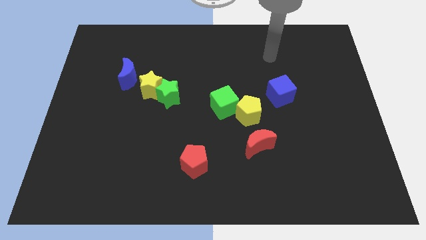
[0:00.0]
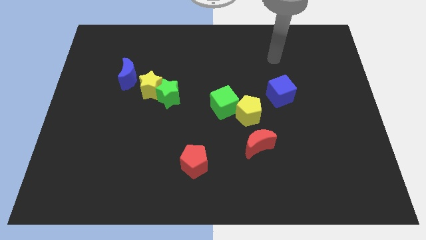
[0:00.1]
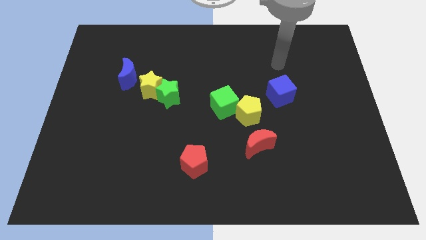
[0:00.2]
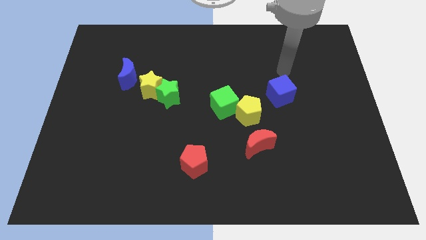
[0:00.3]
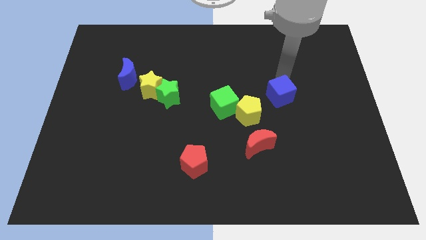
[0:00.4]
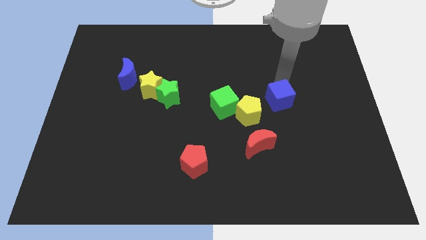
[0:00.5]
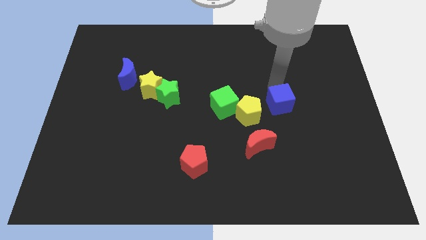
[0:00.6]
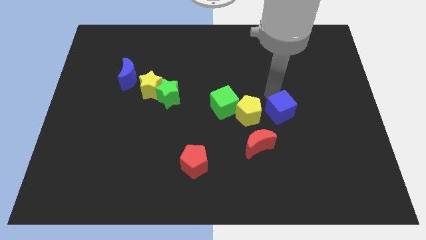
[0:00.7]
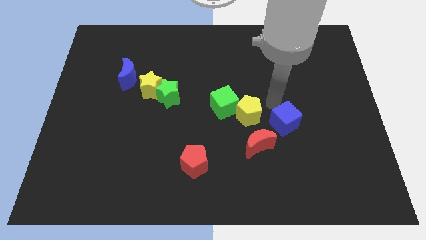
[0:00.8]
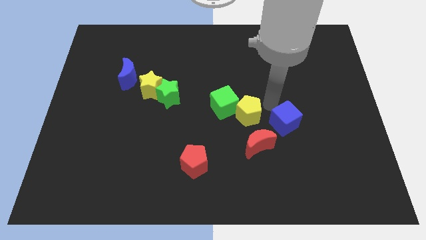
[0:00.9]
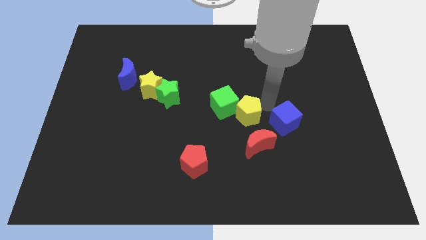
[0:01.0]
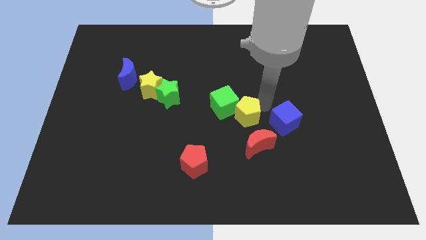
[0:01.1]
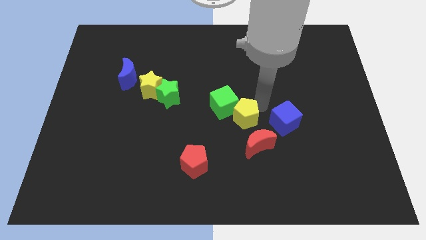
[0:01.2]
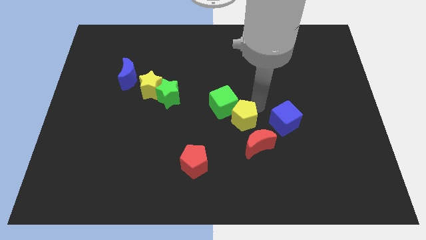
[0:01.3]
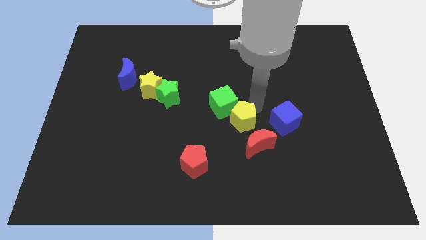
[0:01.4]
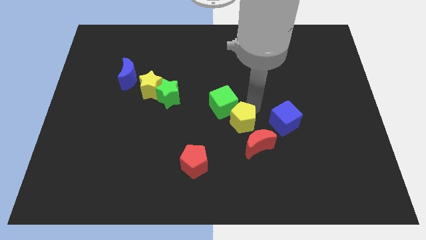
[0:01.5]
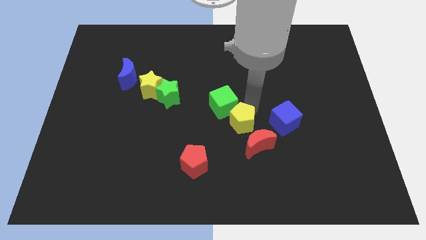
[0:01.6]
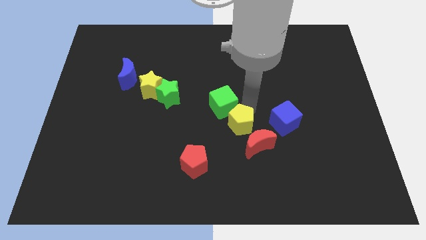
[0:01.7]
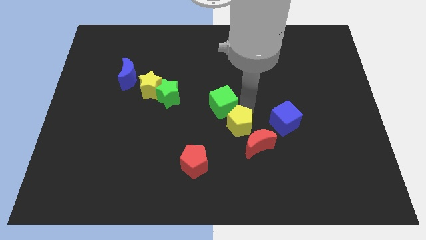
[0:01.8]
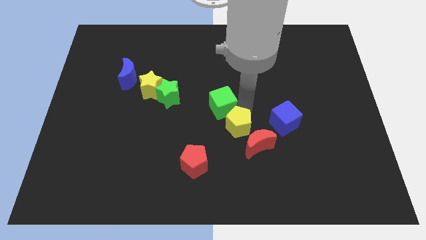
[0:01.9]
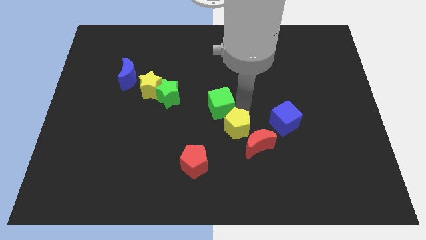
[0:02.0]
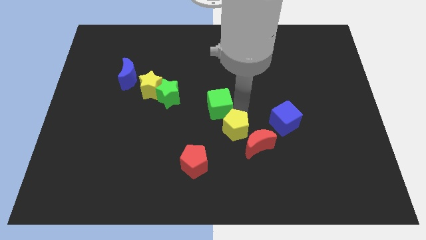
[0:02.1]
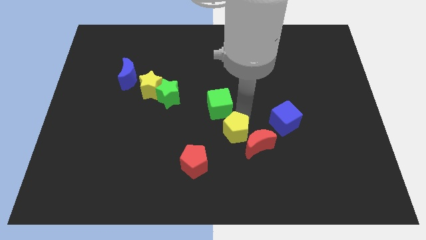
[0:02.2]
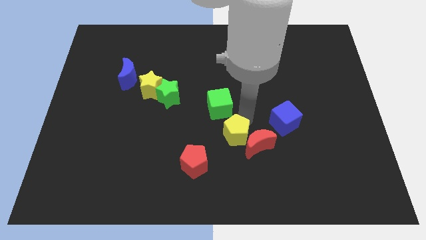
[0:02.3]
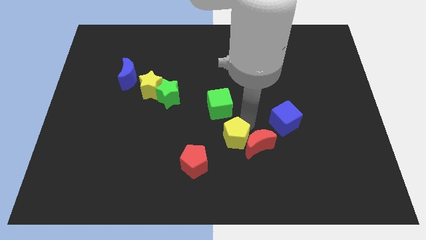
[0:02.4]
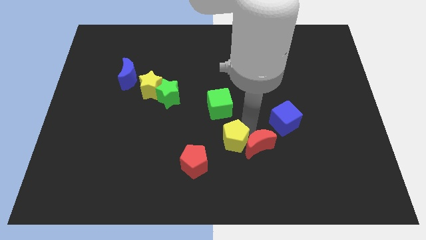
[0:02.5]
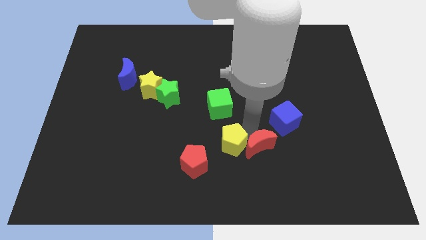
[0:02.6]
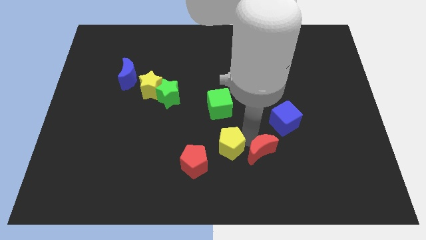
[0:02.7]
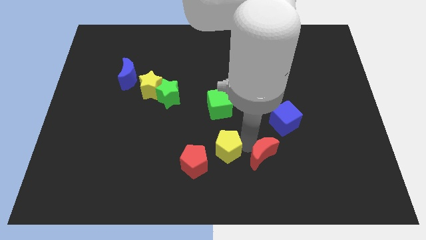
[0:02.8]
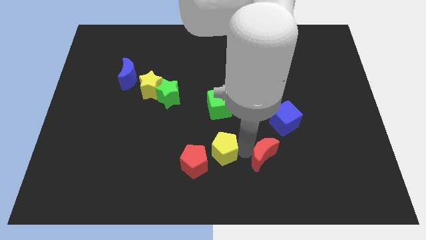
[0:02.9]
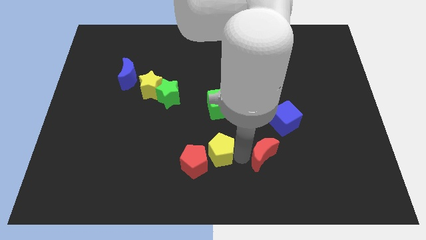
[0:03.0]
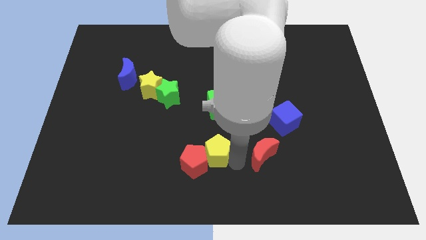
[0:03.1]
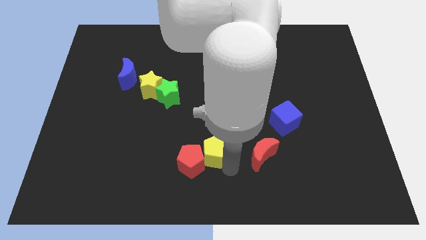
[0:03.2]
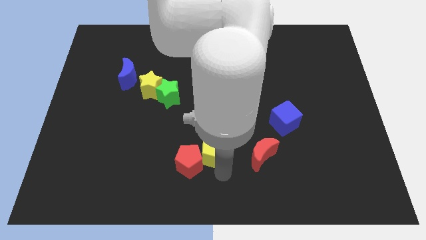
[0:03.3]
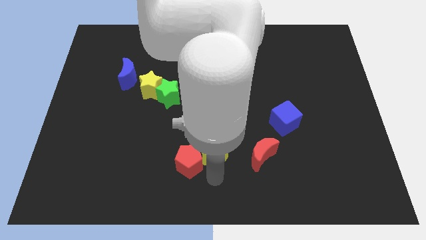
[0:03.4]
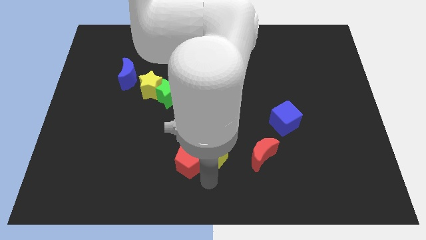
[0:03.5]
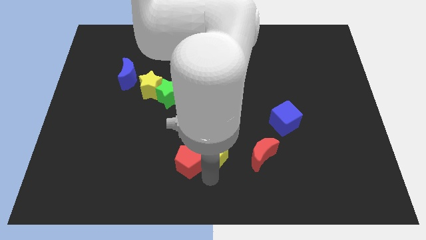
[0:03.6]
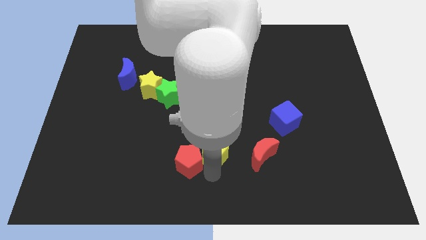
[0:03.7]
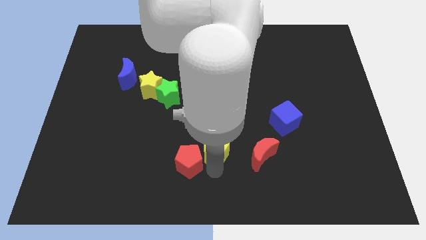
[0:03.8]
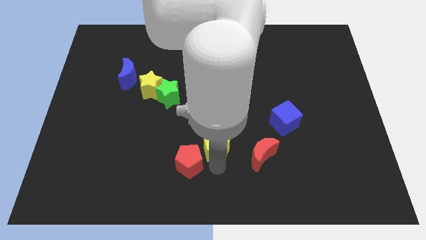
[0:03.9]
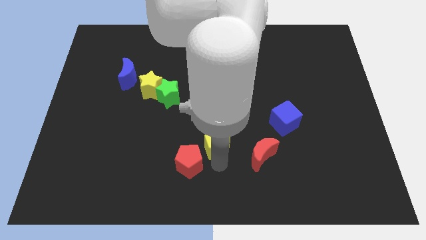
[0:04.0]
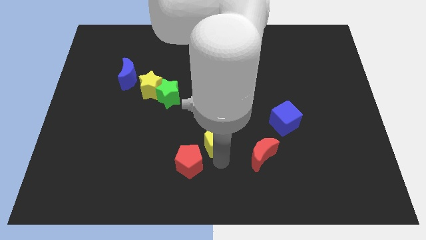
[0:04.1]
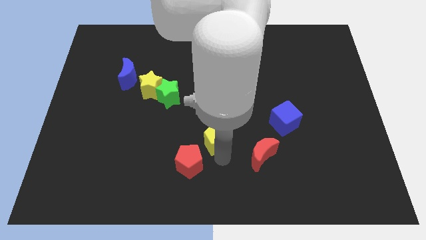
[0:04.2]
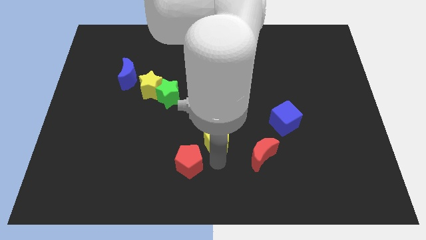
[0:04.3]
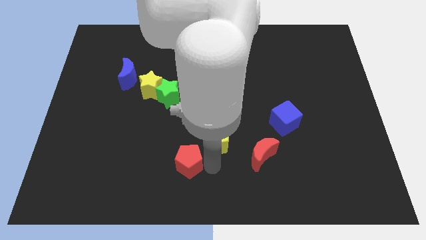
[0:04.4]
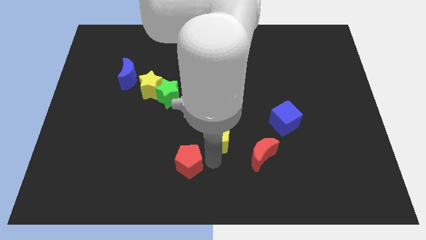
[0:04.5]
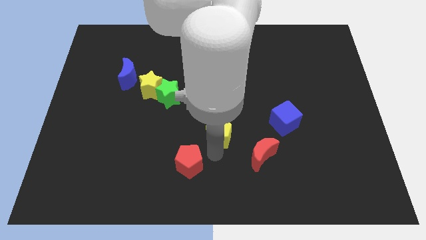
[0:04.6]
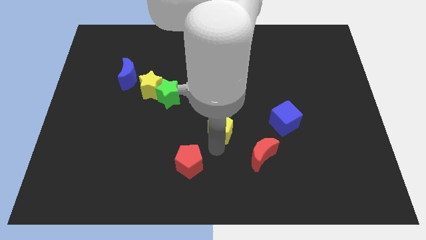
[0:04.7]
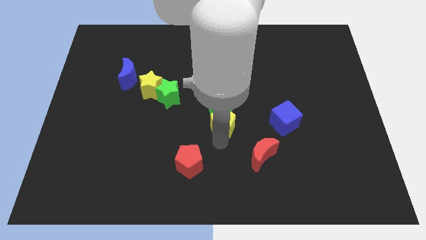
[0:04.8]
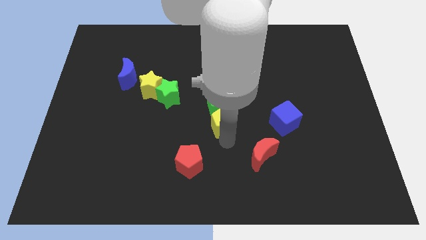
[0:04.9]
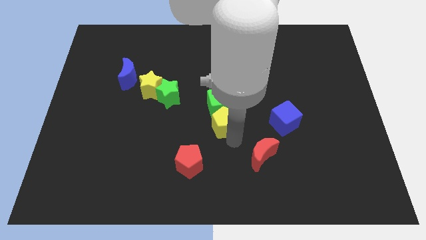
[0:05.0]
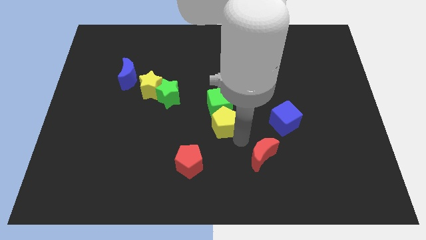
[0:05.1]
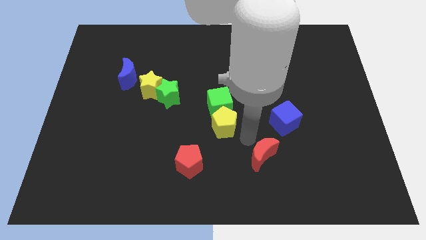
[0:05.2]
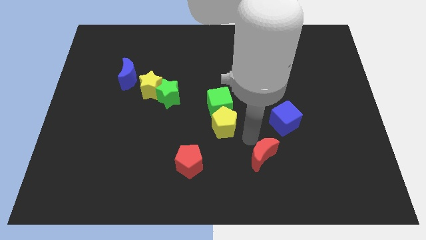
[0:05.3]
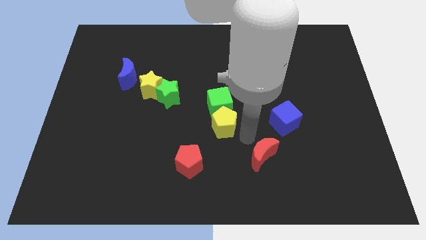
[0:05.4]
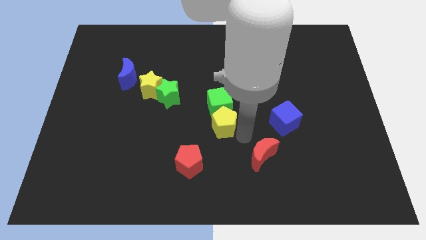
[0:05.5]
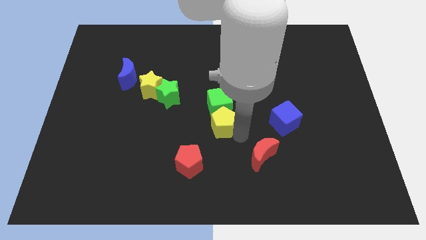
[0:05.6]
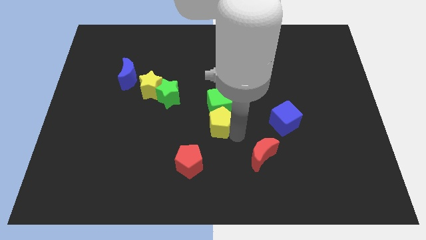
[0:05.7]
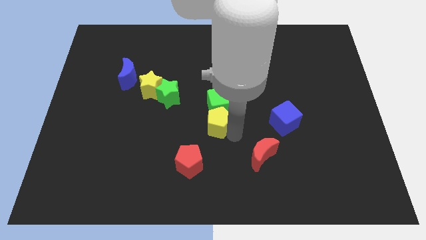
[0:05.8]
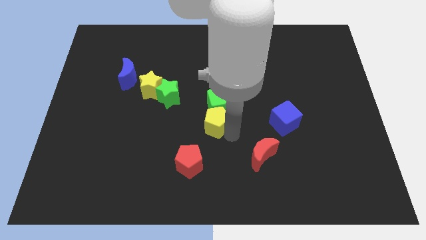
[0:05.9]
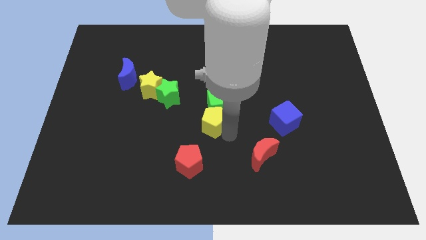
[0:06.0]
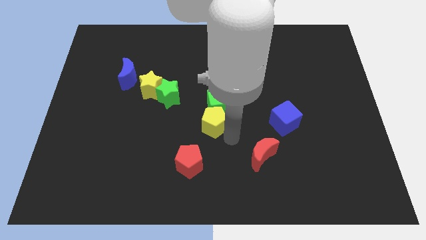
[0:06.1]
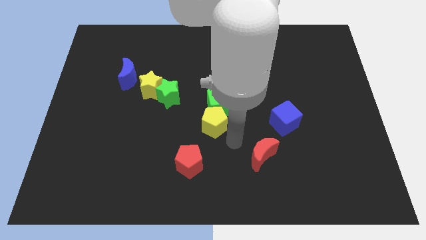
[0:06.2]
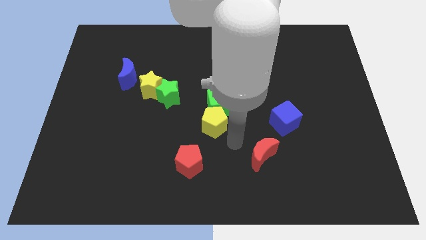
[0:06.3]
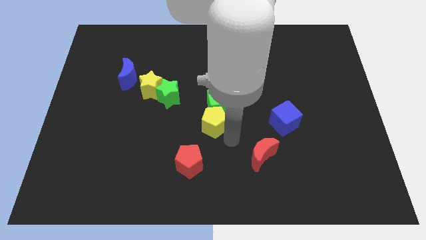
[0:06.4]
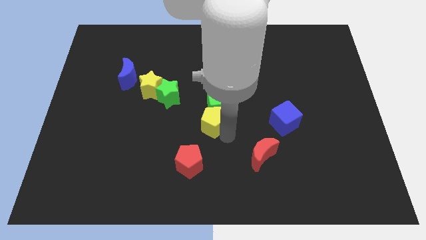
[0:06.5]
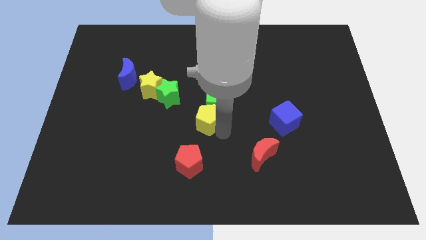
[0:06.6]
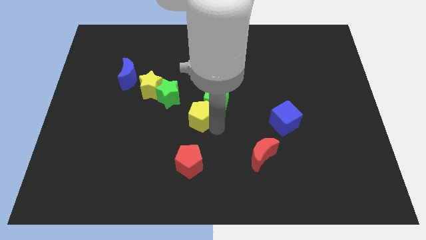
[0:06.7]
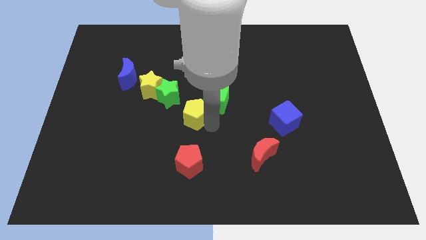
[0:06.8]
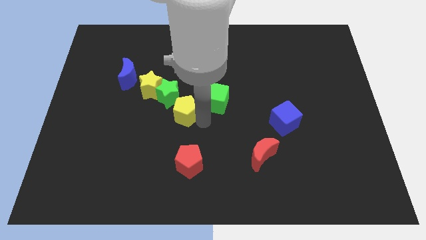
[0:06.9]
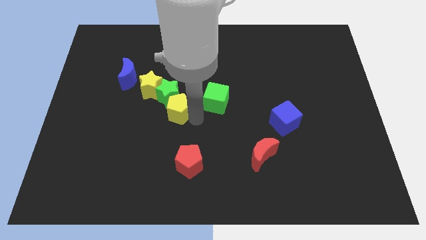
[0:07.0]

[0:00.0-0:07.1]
push the yellow pentagon towards the green star
